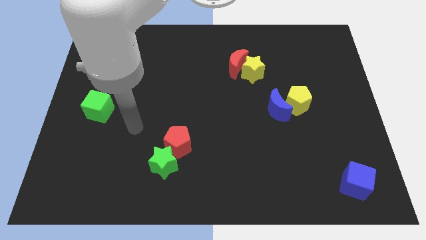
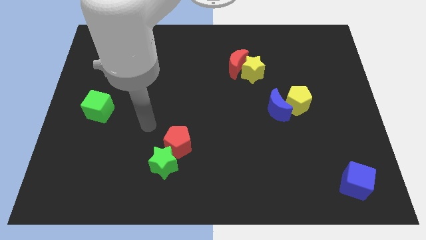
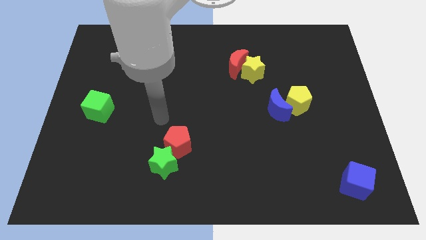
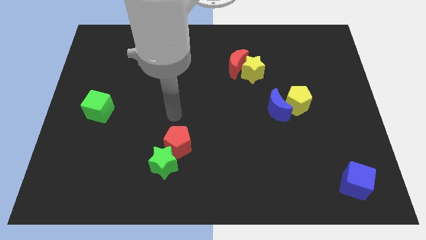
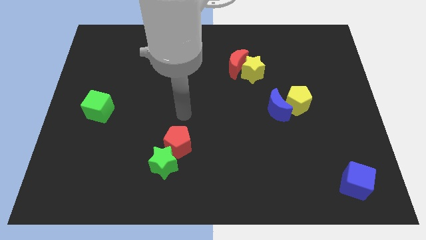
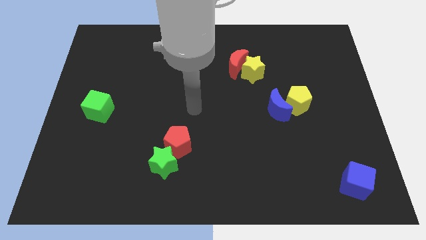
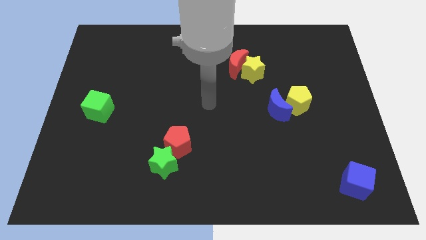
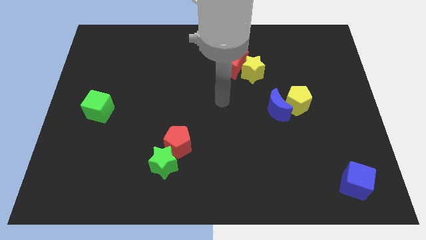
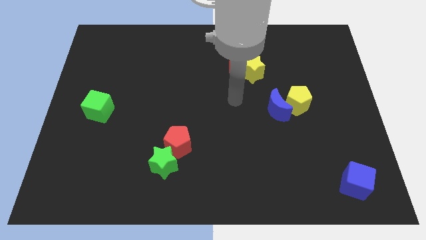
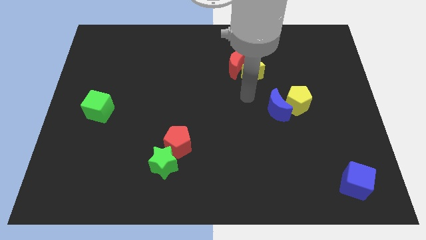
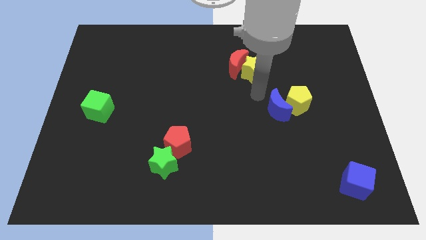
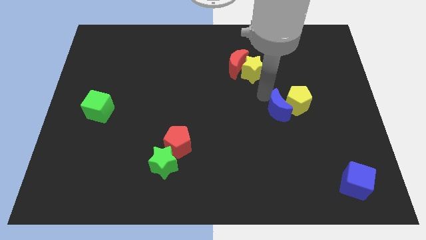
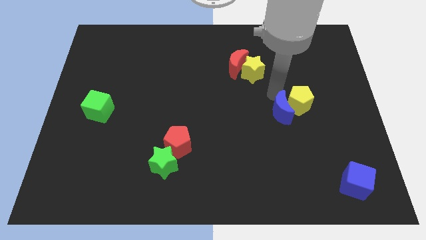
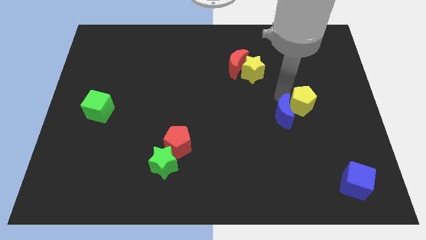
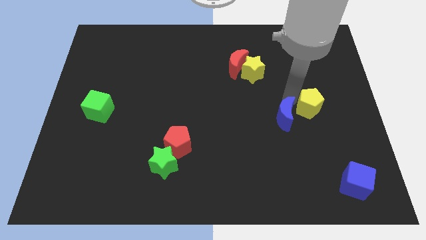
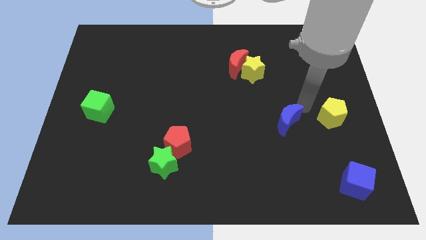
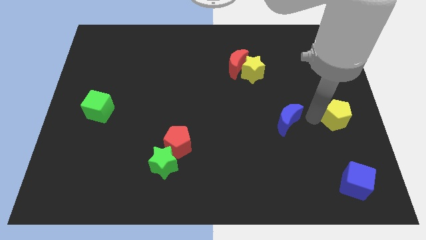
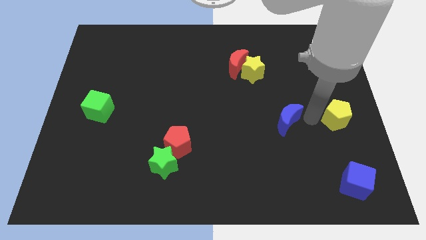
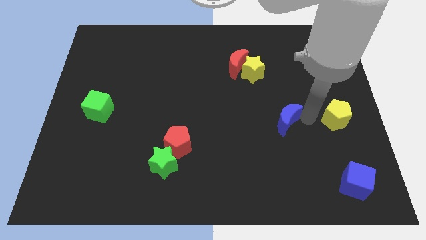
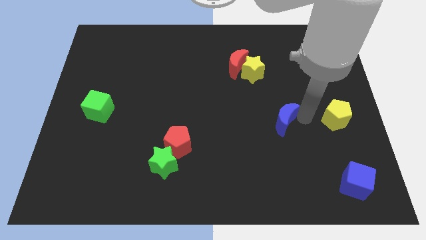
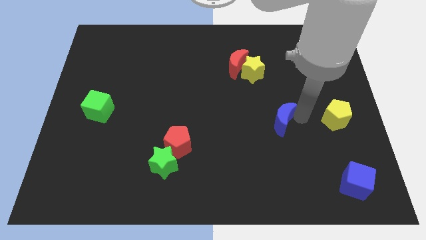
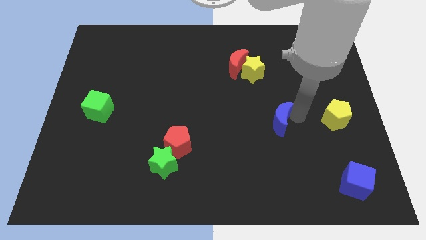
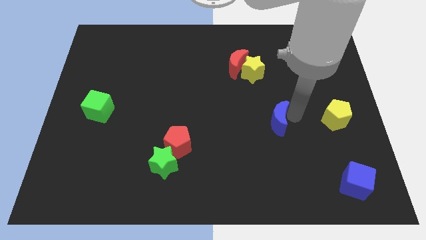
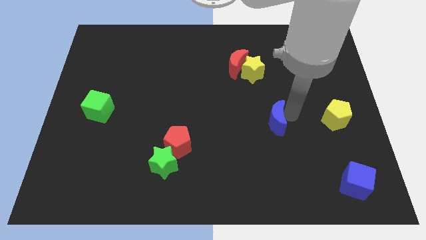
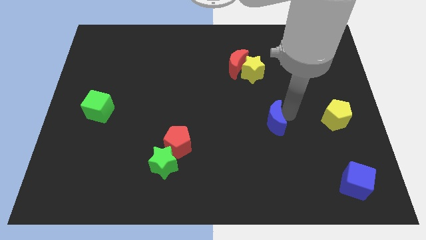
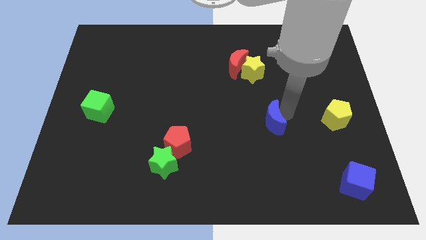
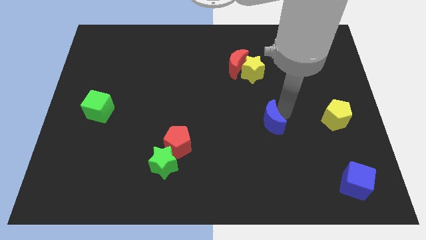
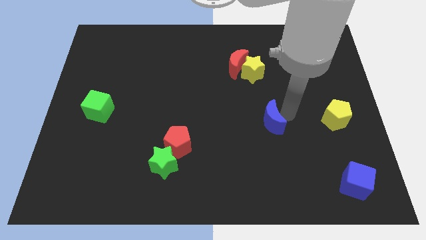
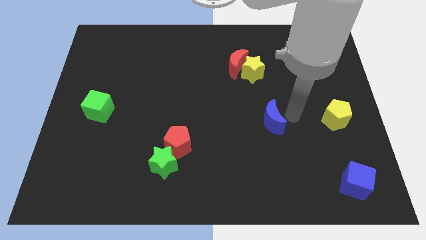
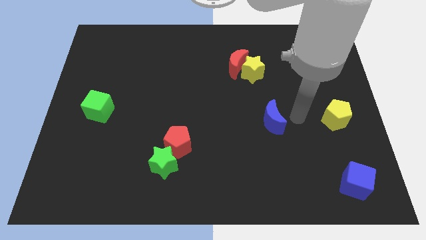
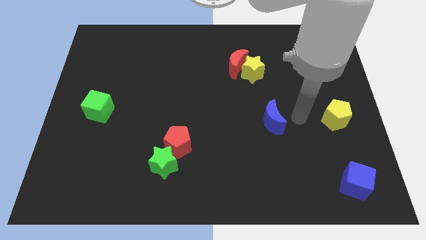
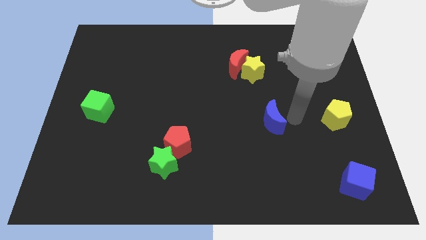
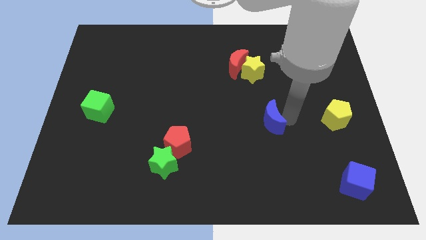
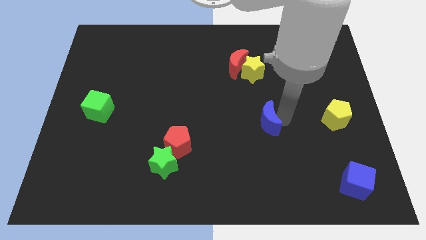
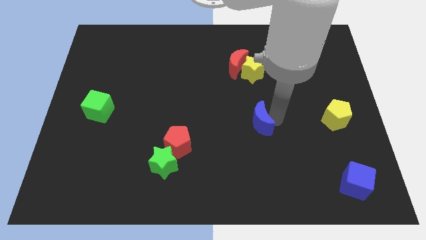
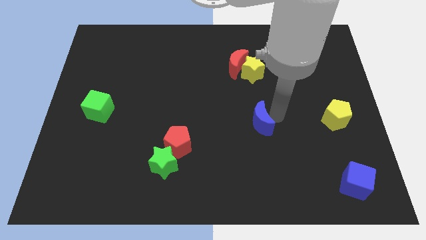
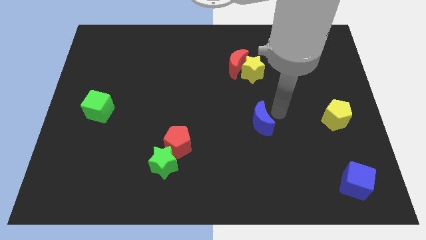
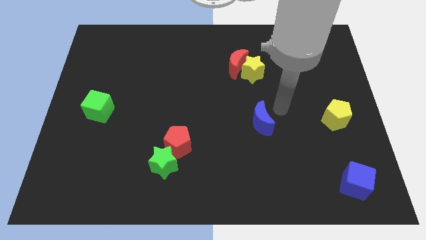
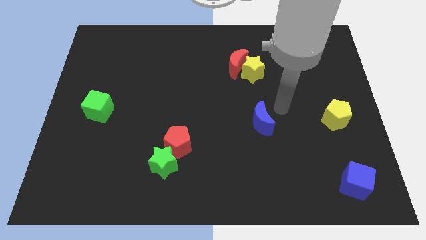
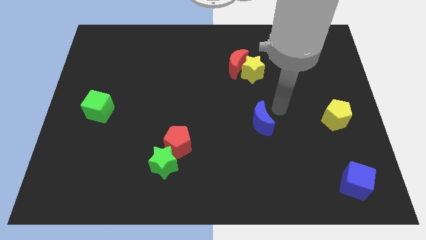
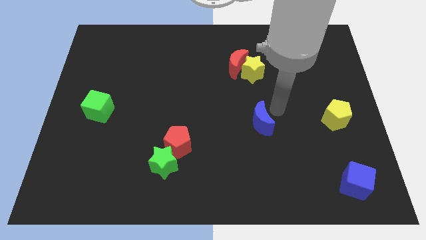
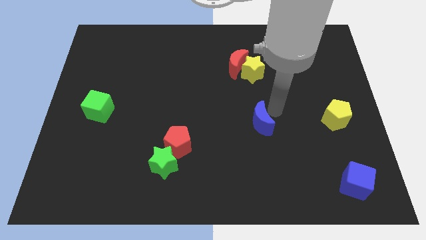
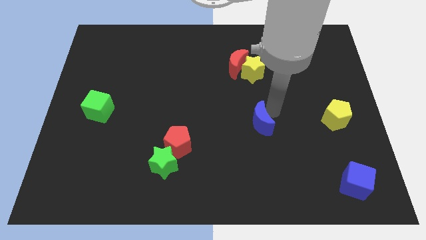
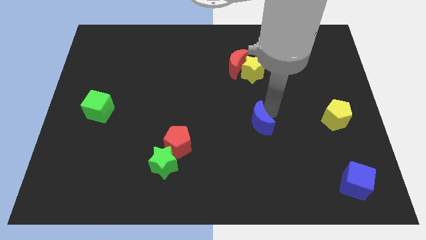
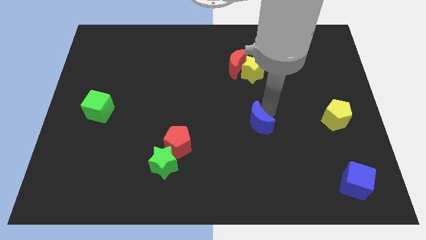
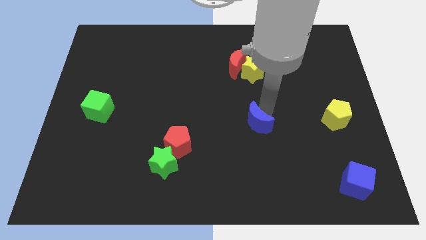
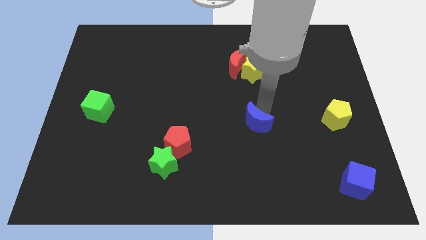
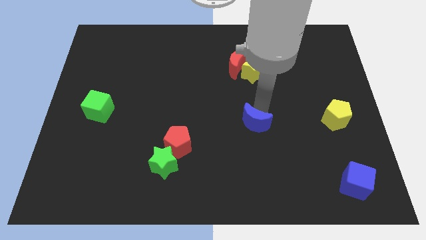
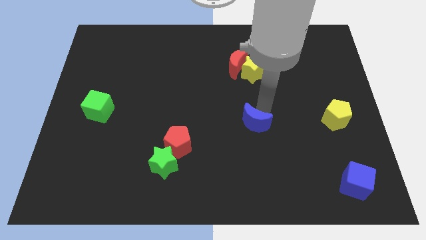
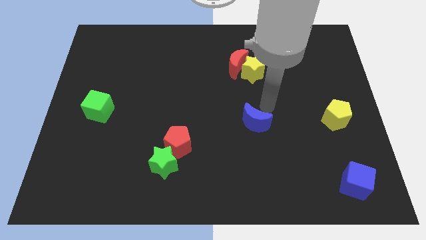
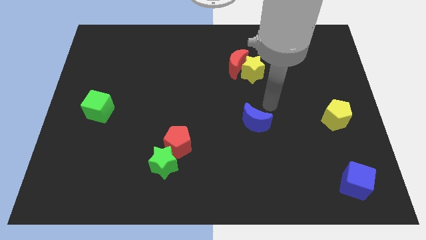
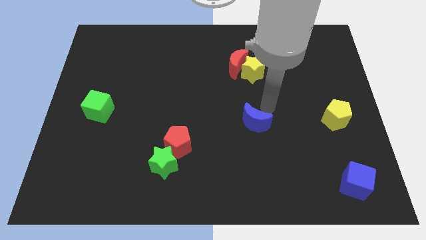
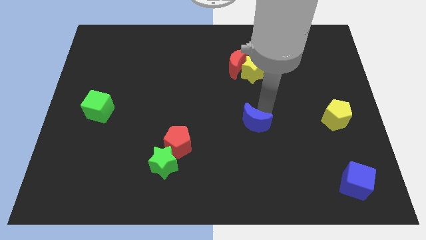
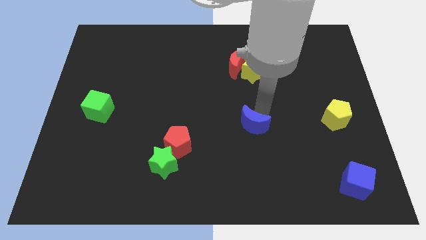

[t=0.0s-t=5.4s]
slide the blue moon diagonally down and to the left a bit

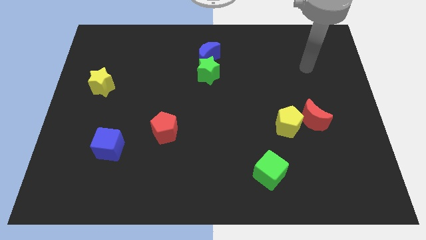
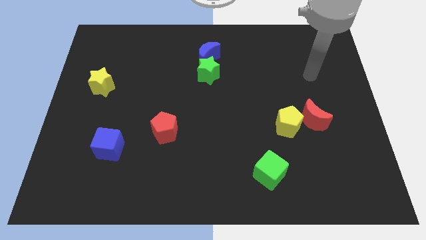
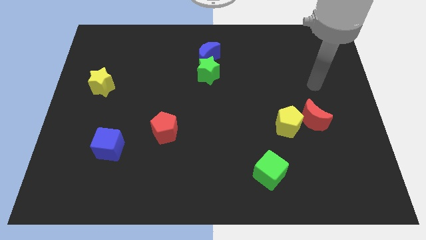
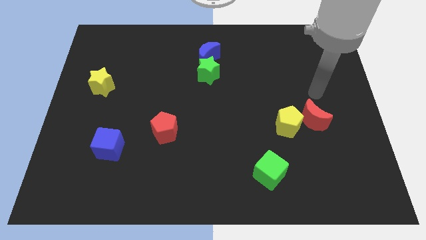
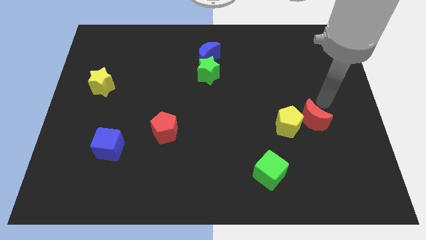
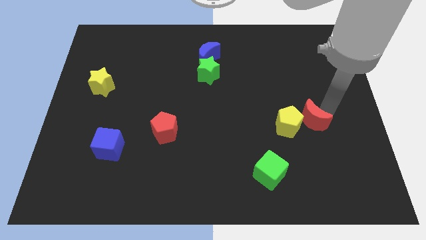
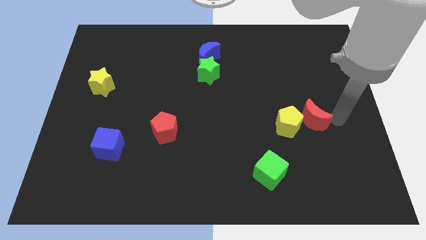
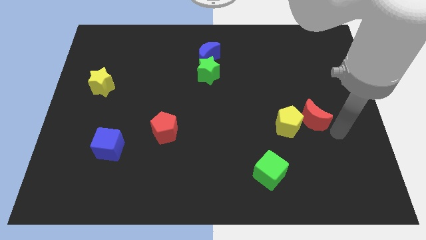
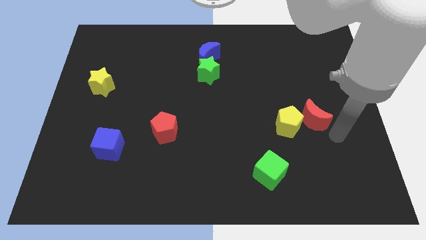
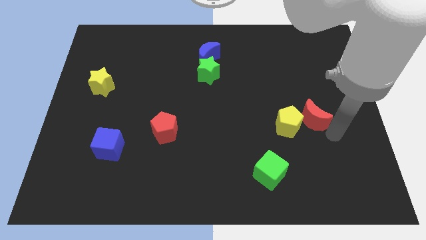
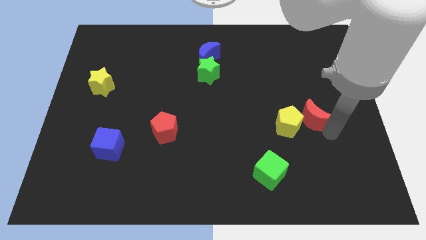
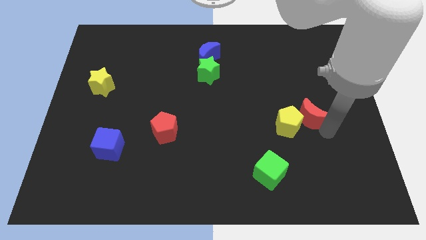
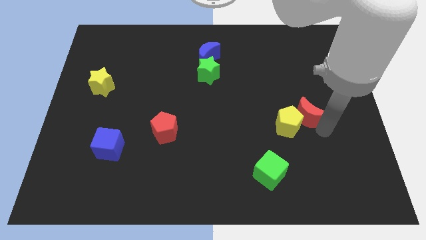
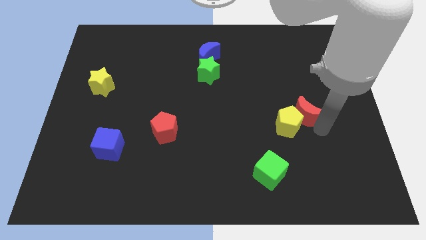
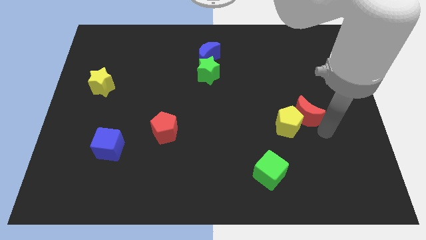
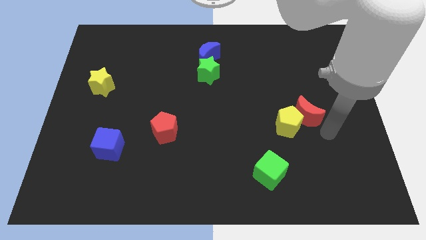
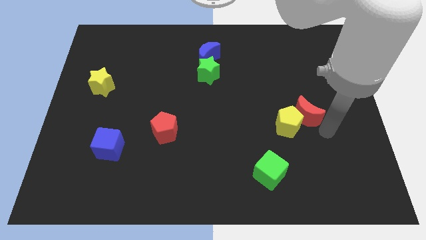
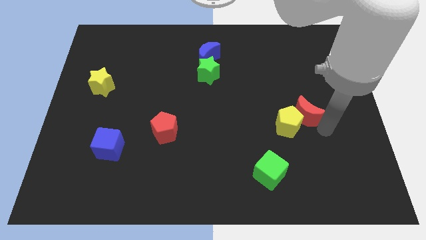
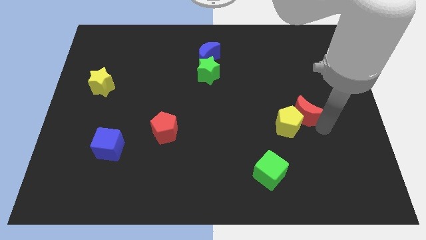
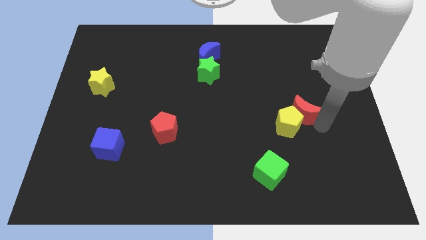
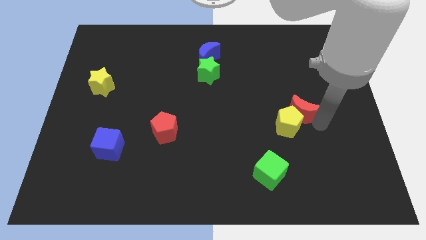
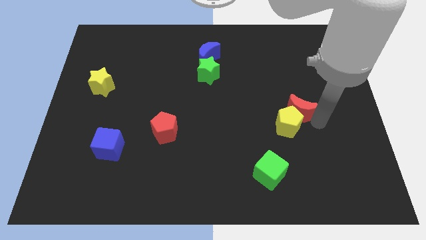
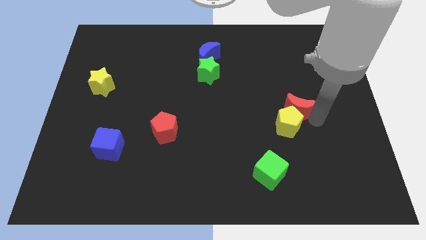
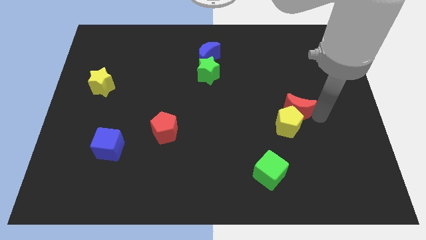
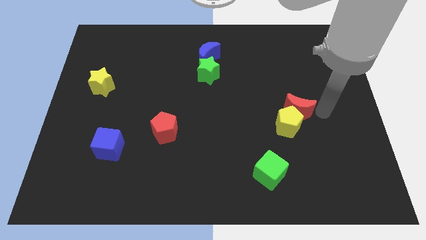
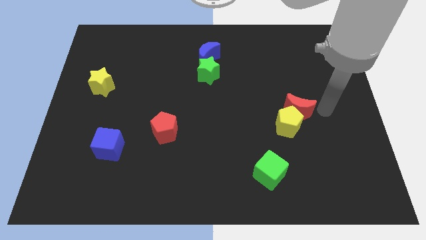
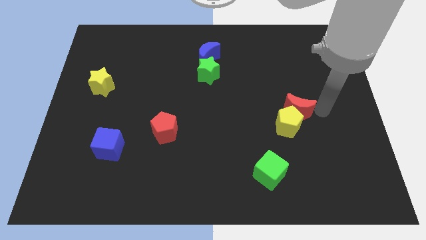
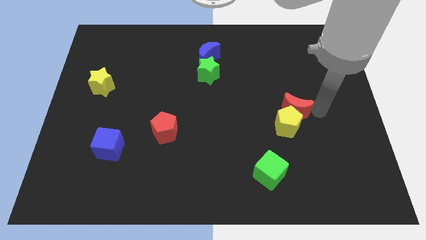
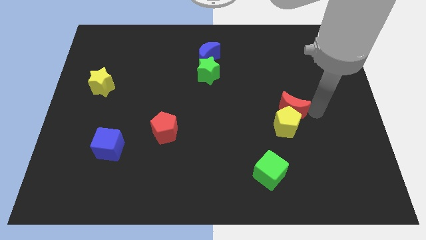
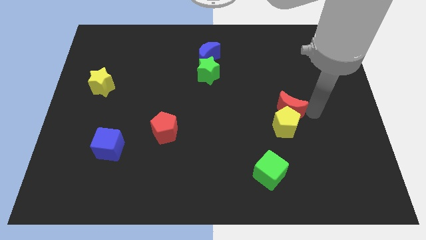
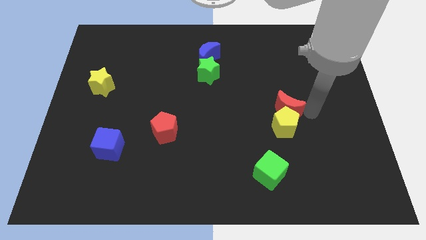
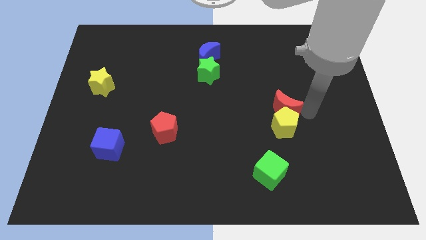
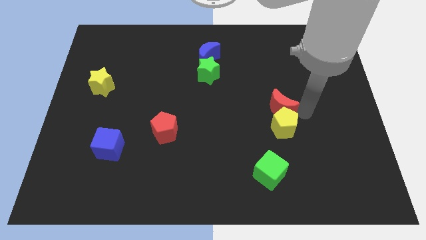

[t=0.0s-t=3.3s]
push the red moon left a little bit

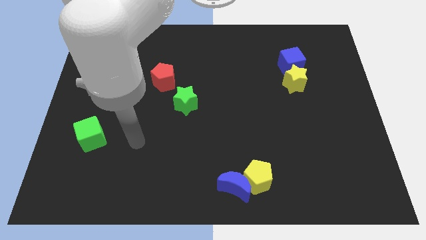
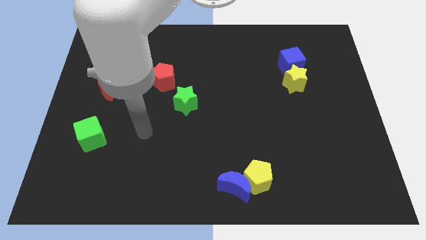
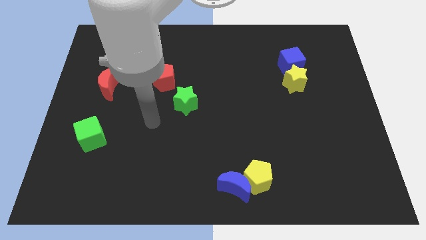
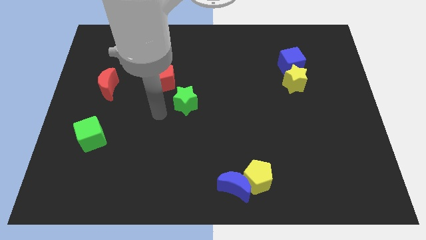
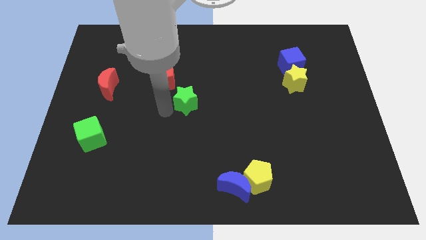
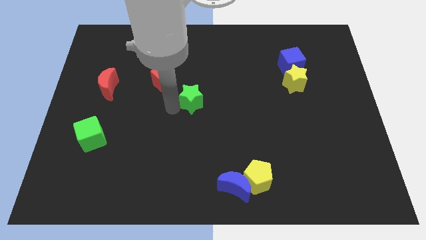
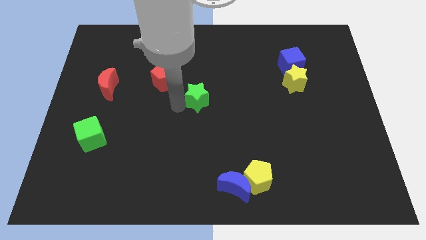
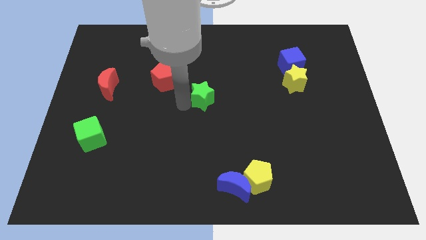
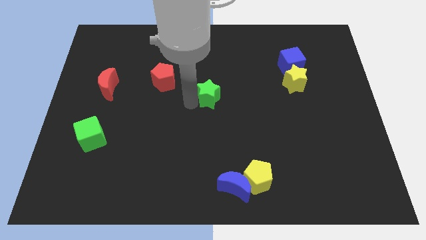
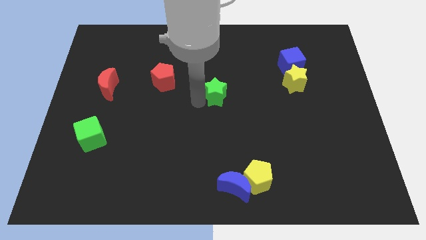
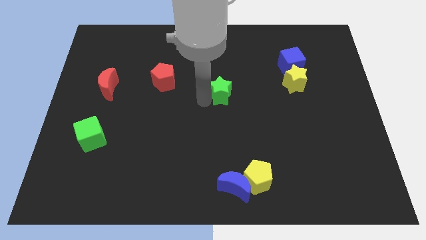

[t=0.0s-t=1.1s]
slightly push the green star up and then to the right
